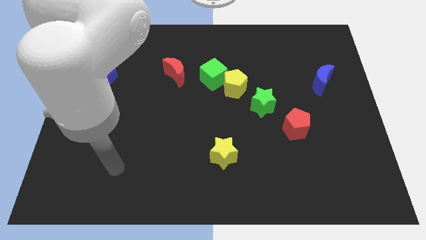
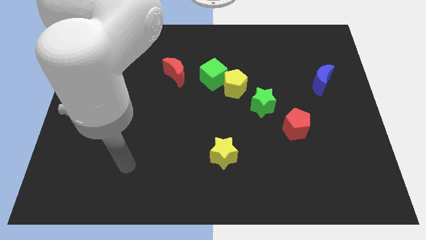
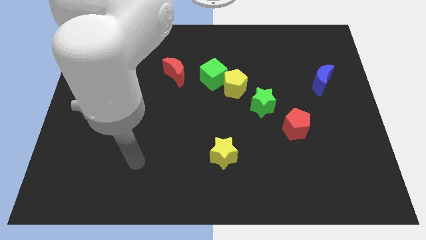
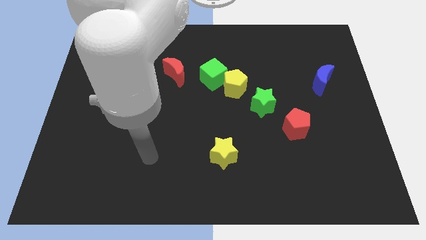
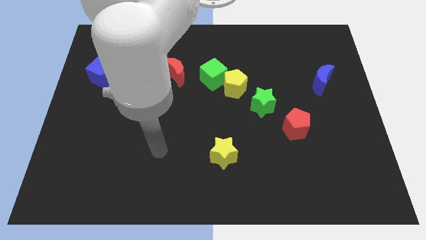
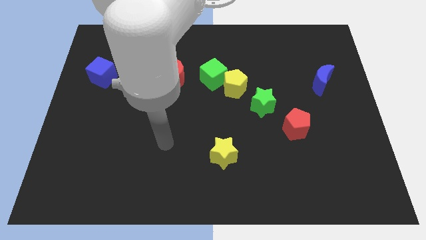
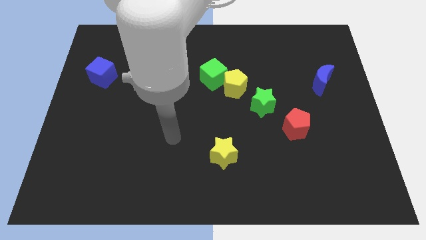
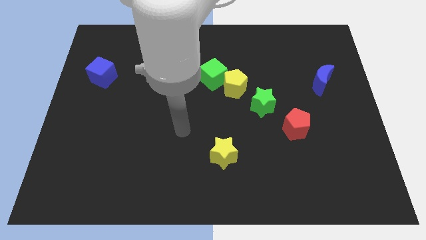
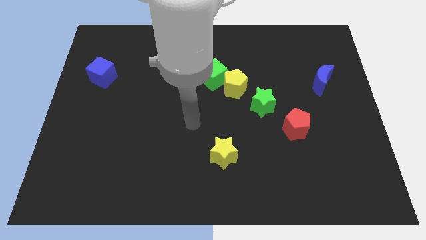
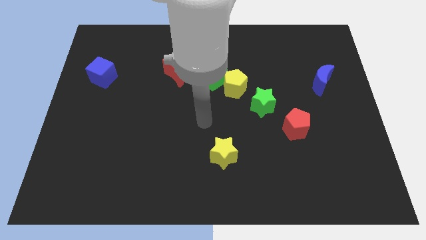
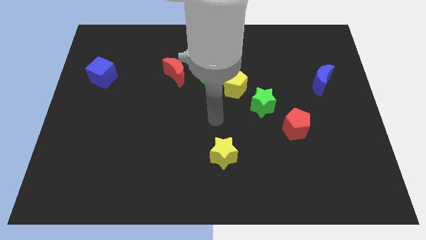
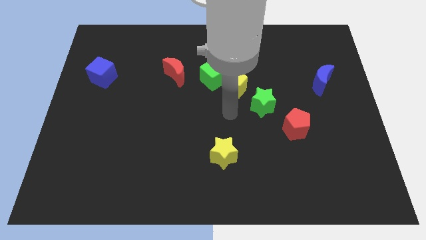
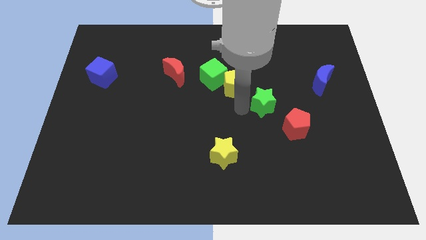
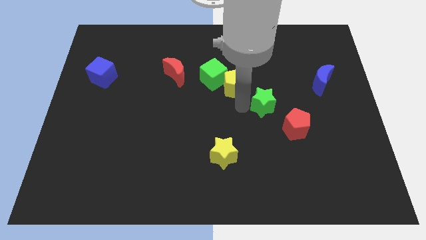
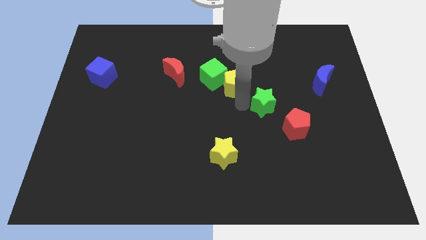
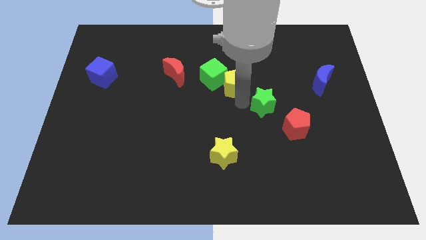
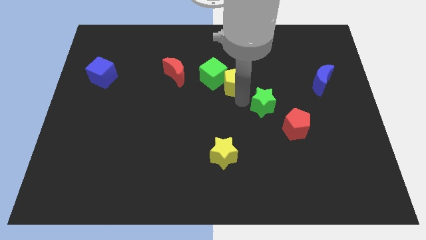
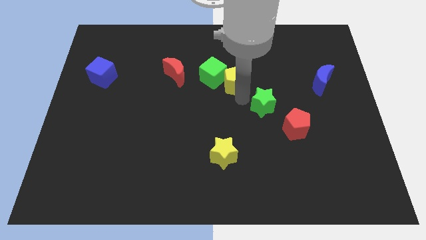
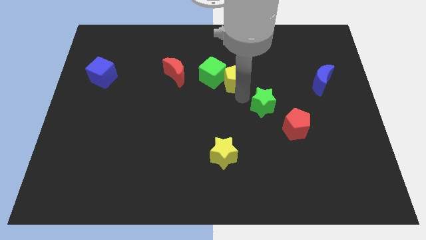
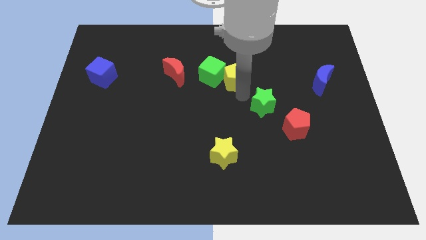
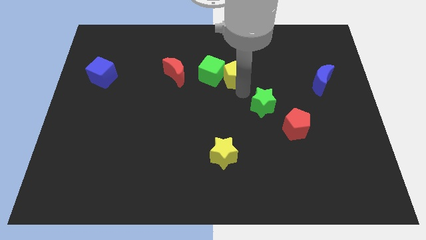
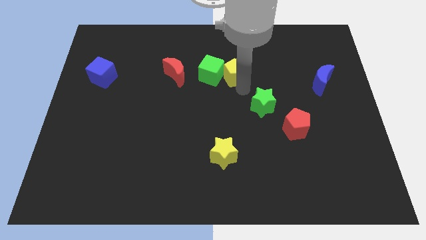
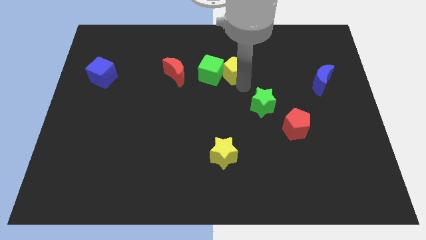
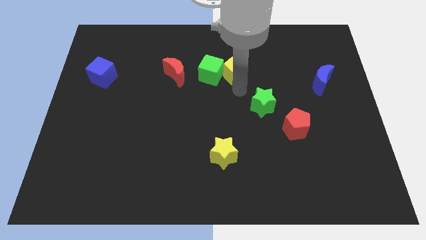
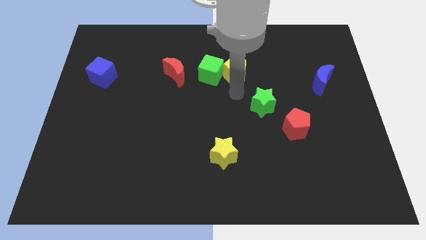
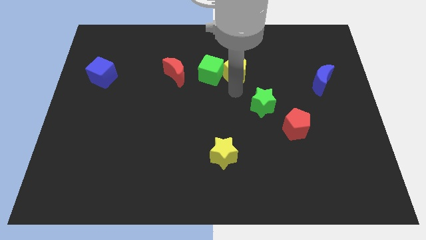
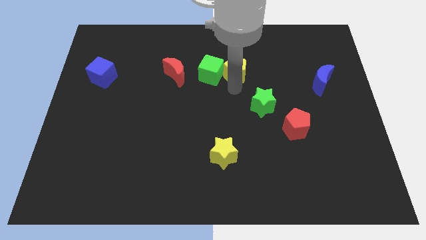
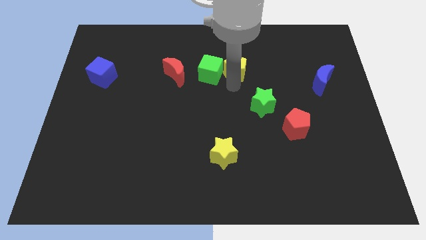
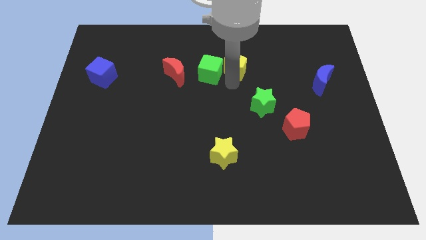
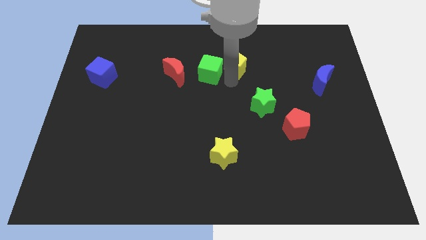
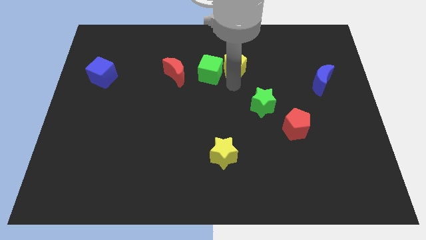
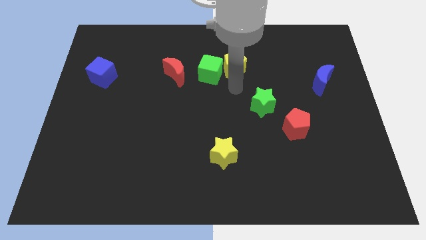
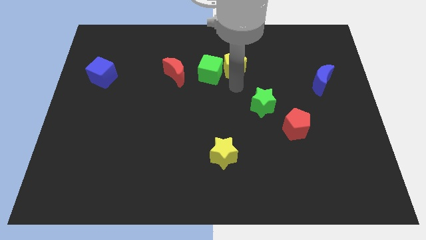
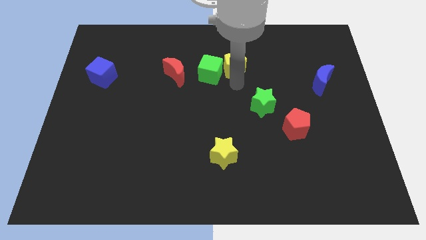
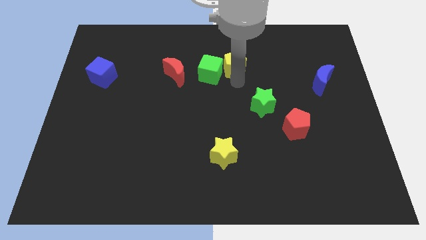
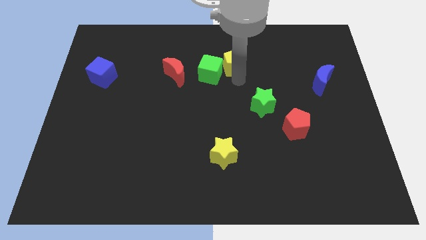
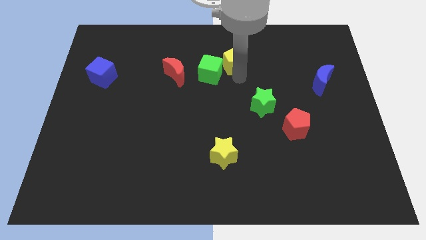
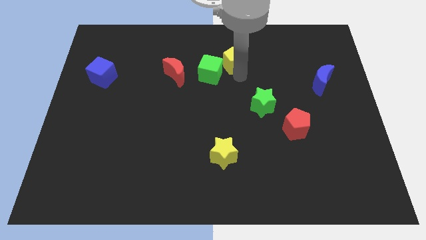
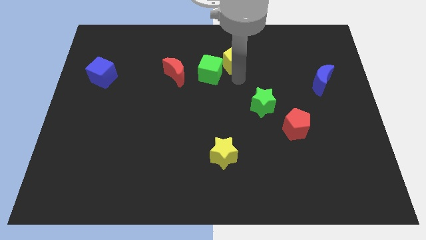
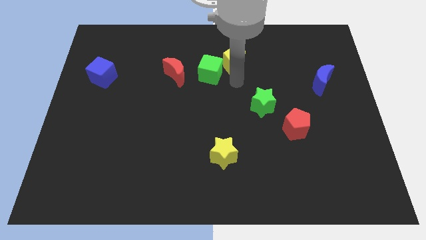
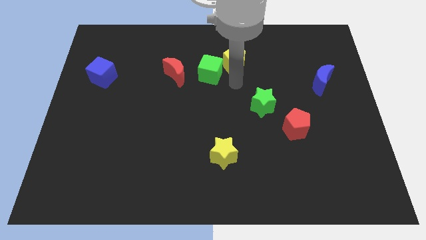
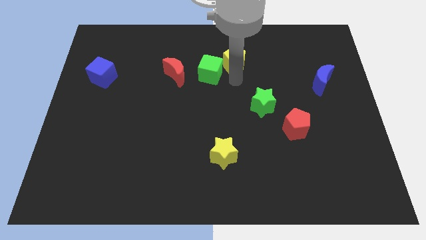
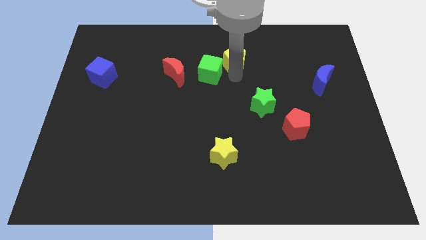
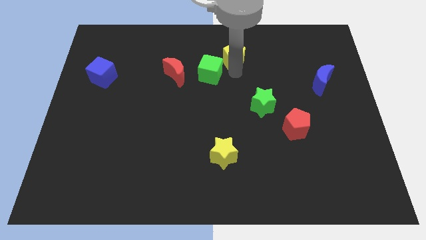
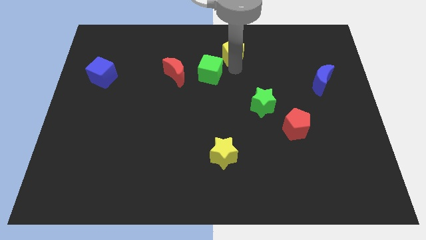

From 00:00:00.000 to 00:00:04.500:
separate the yellow pentagon from the green cube and green star

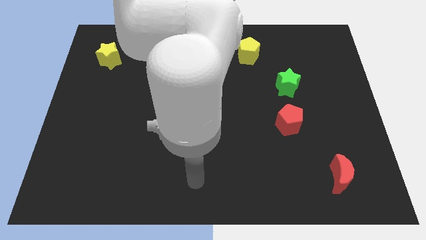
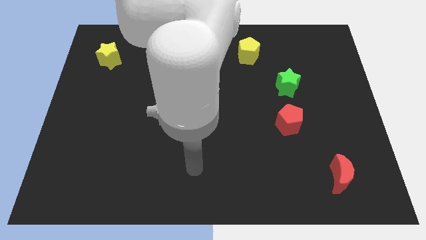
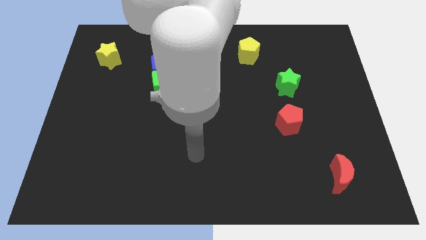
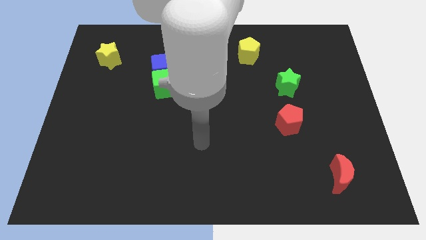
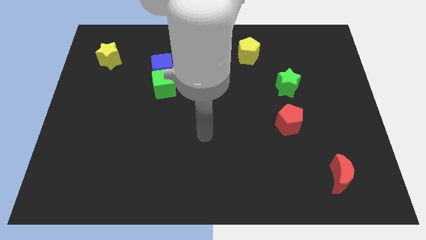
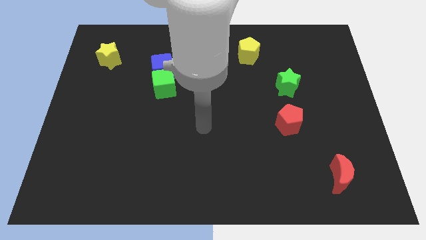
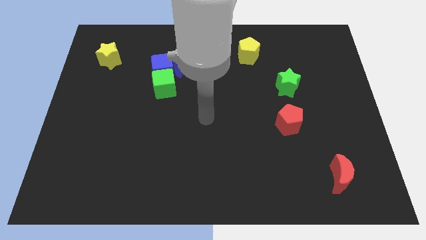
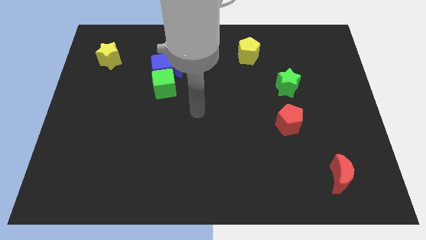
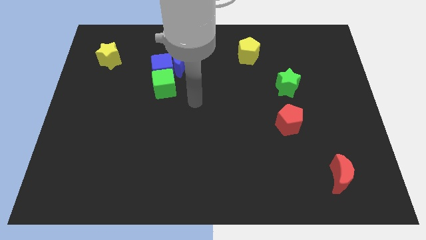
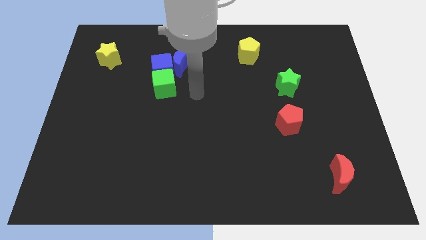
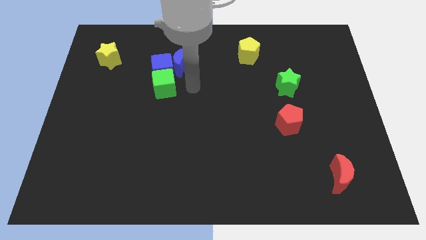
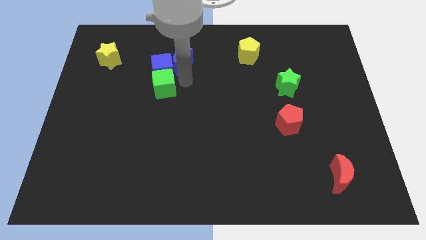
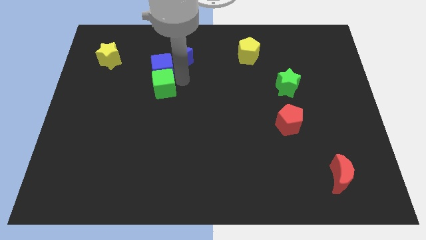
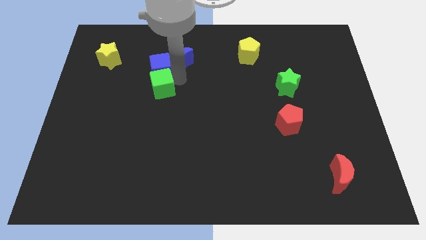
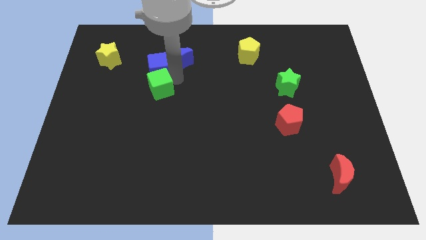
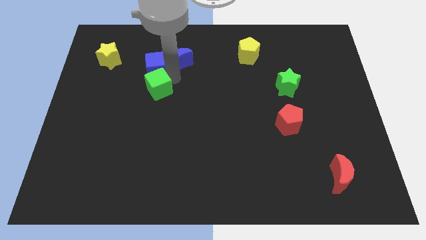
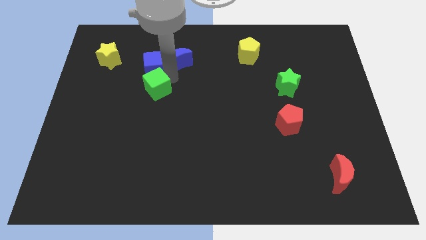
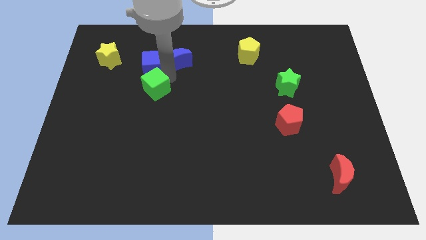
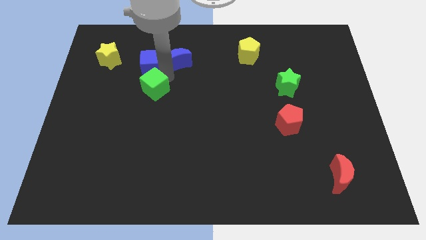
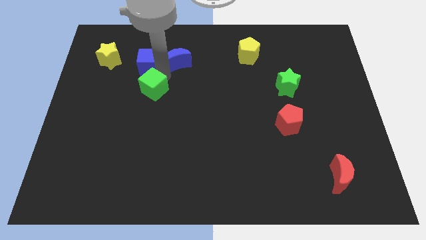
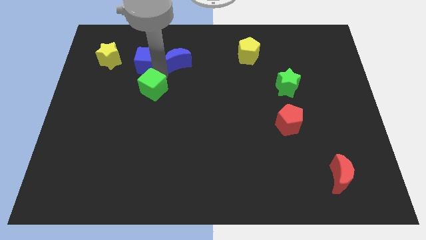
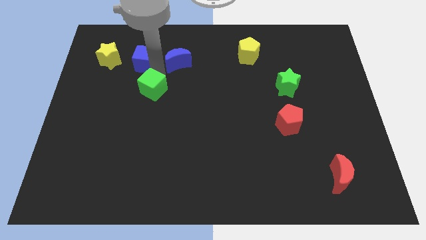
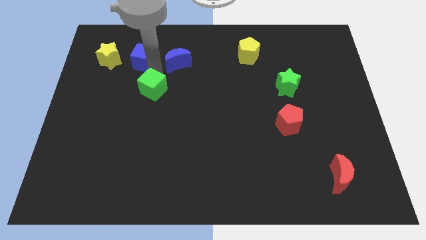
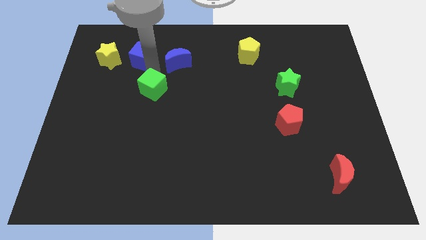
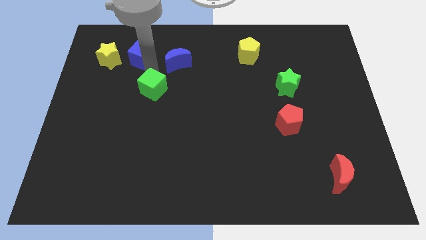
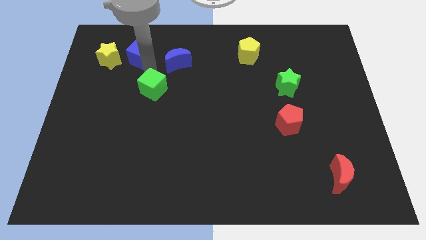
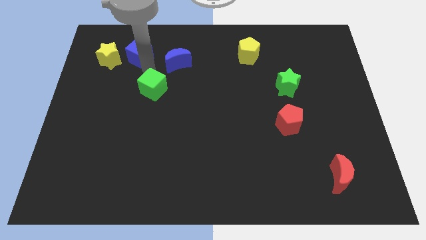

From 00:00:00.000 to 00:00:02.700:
separate the blue cube from the blue moon and green cube

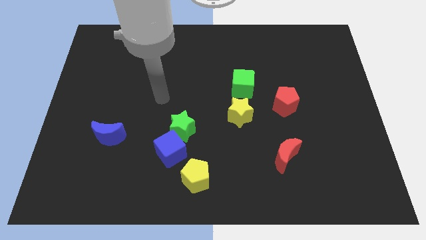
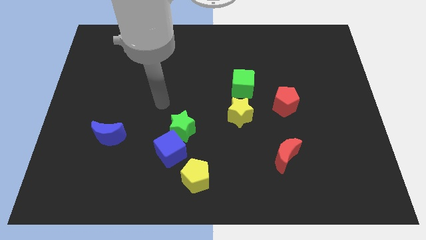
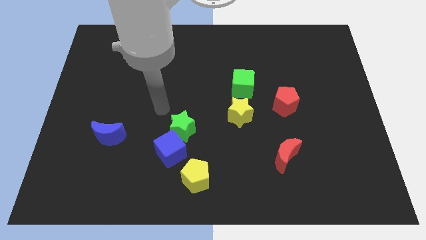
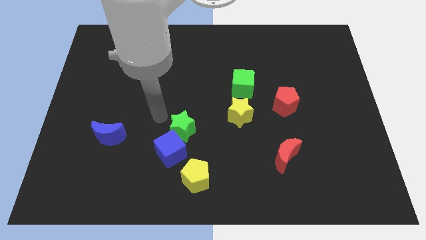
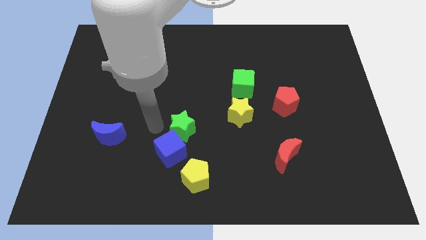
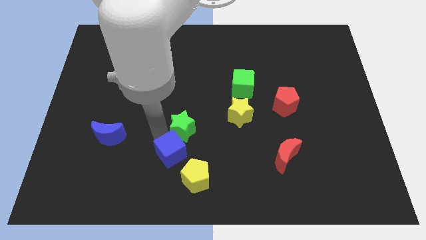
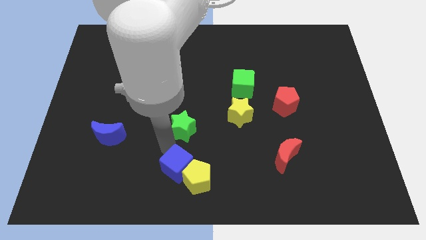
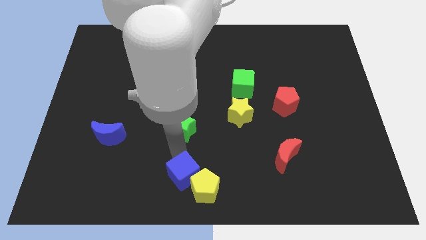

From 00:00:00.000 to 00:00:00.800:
separate the green star from the blue cube

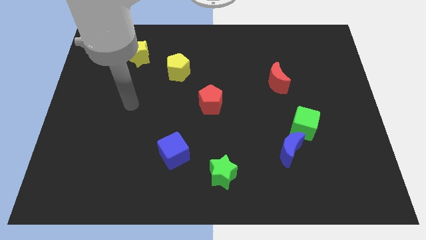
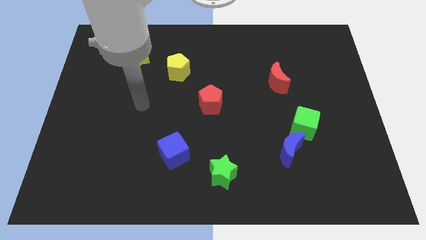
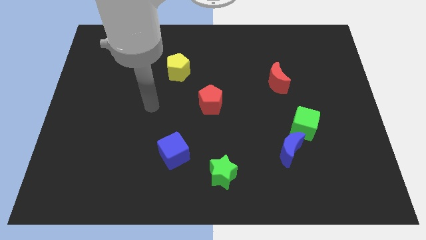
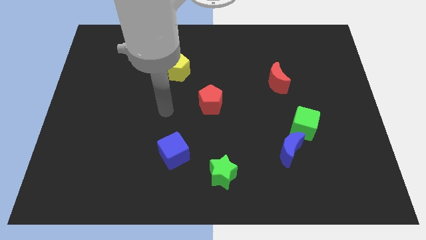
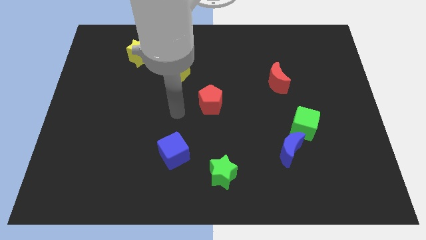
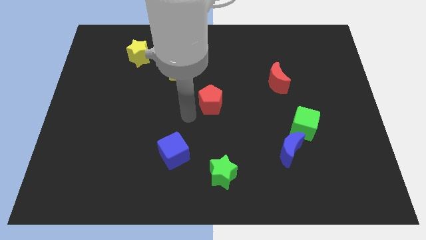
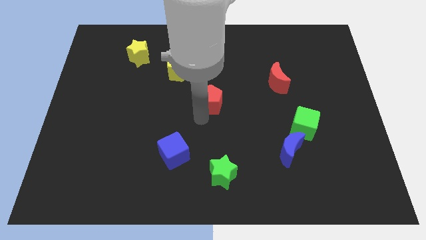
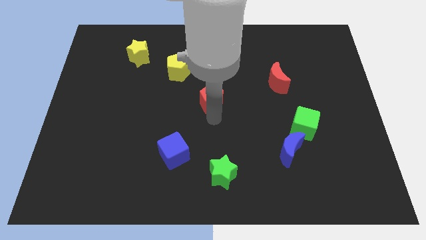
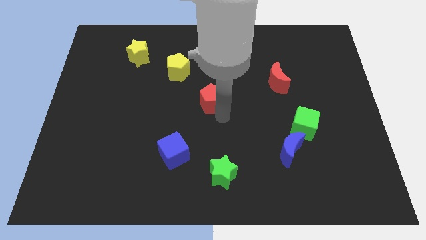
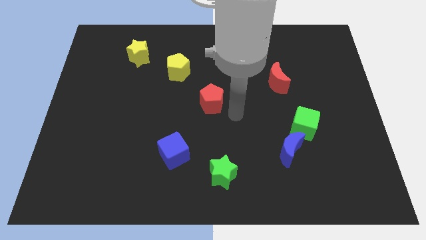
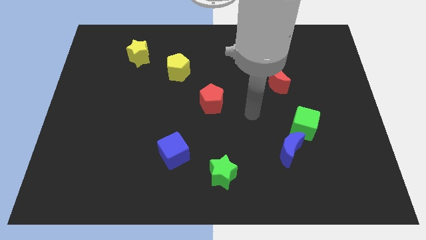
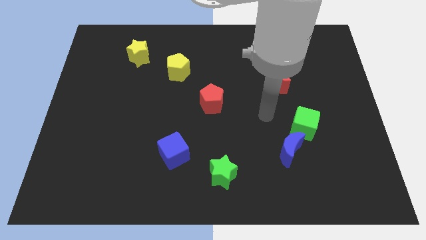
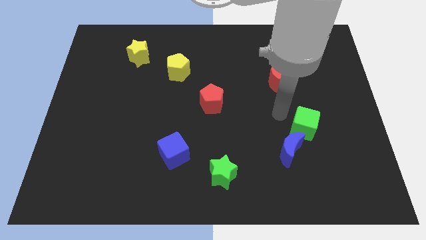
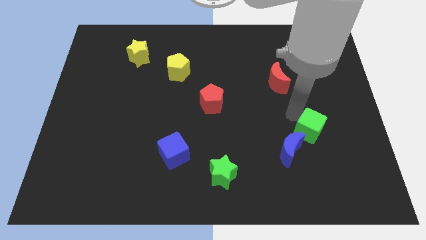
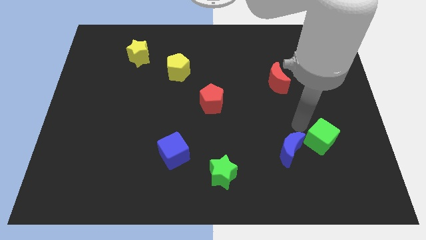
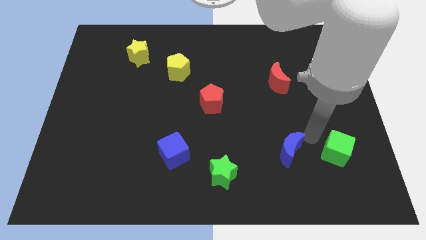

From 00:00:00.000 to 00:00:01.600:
separate the blue moon from the green cube
